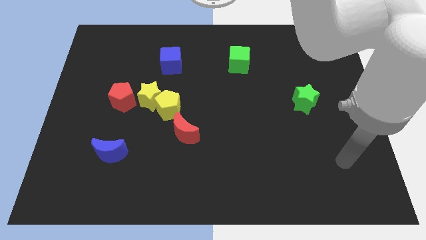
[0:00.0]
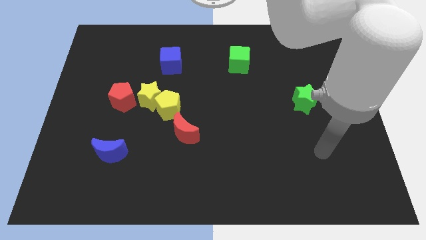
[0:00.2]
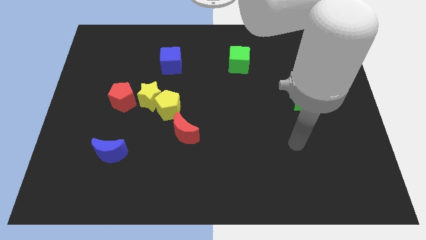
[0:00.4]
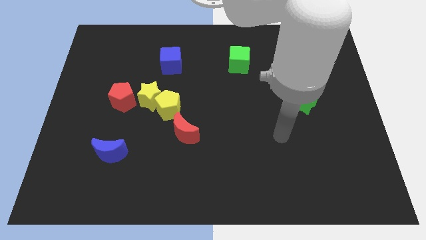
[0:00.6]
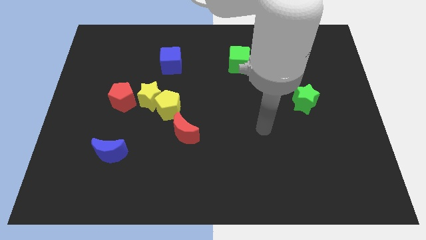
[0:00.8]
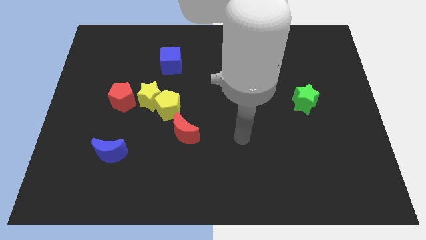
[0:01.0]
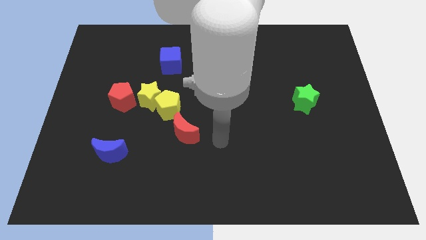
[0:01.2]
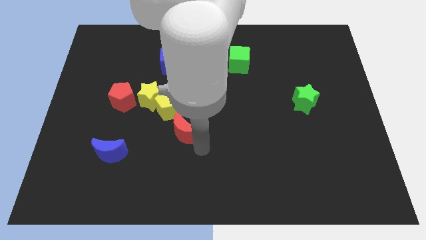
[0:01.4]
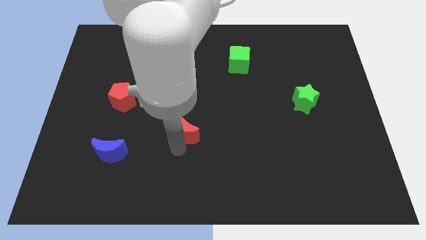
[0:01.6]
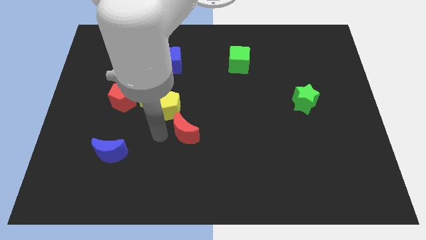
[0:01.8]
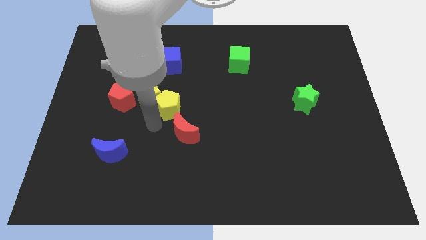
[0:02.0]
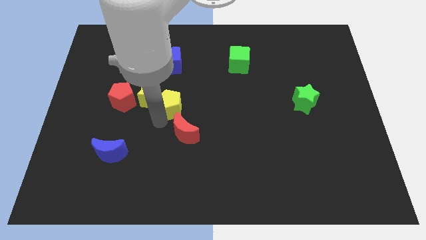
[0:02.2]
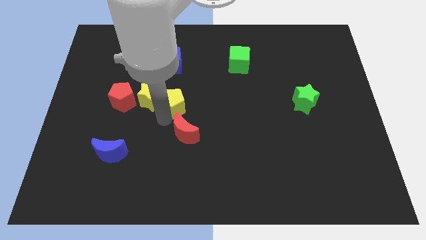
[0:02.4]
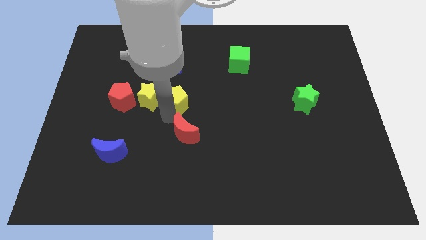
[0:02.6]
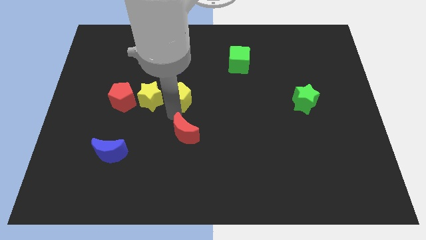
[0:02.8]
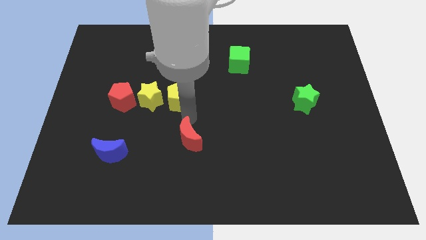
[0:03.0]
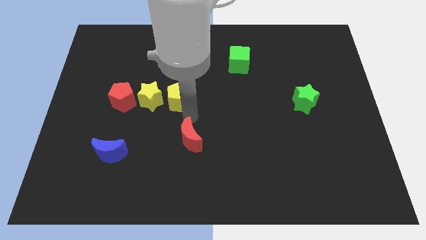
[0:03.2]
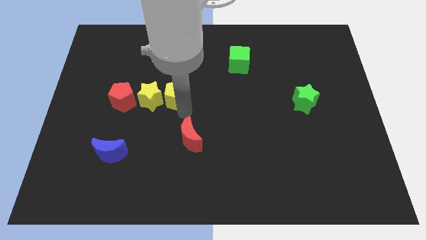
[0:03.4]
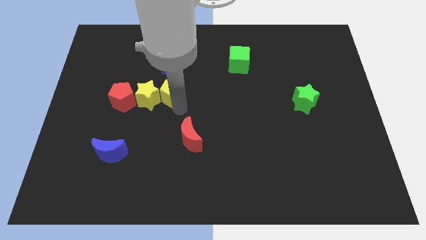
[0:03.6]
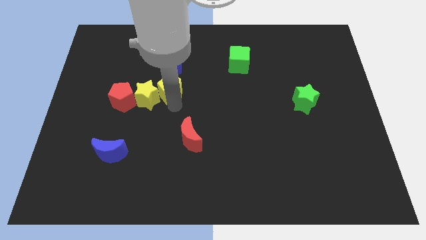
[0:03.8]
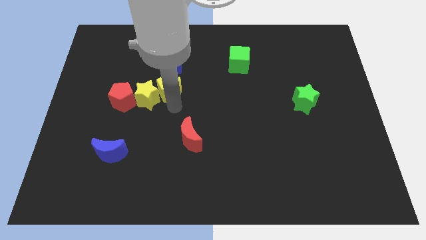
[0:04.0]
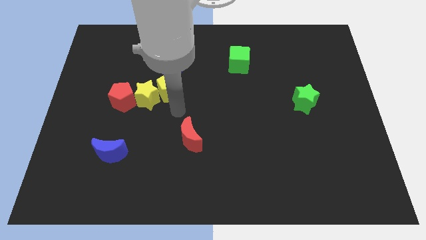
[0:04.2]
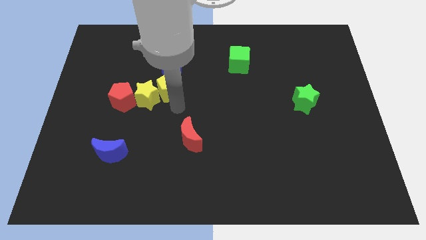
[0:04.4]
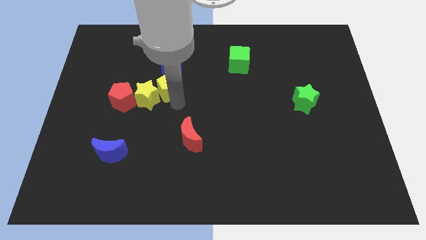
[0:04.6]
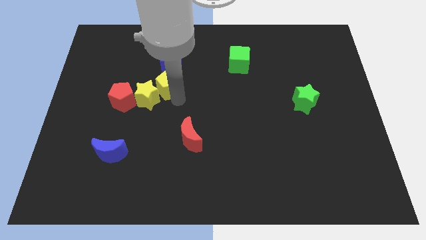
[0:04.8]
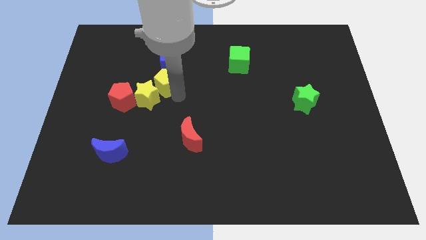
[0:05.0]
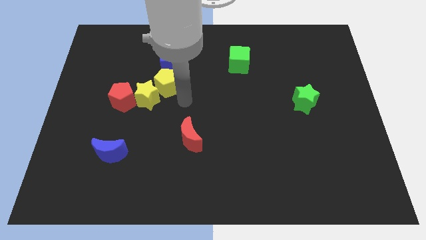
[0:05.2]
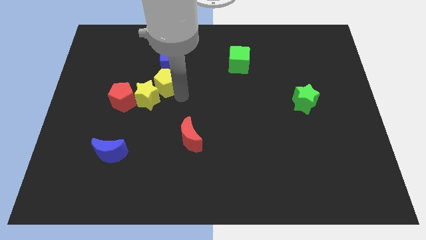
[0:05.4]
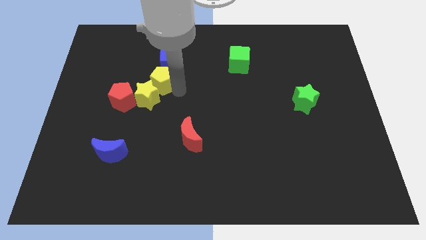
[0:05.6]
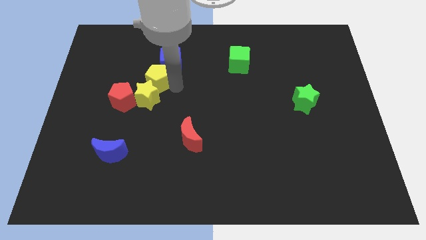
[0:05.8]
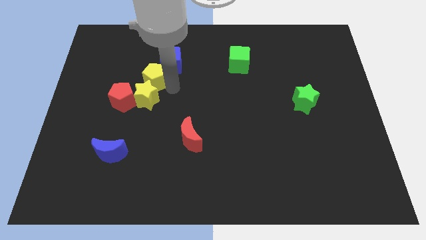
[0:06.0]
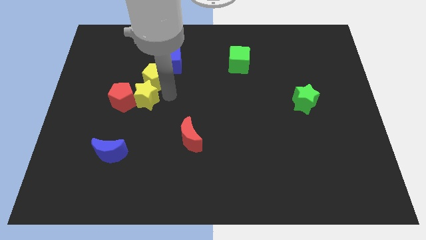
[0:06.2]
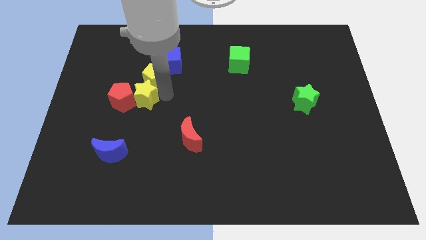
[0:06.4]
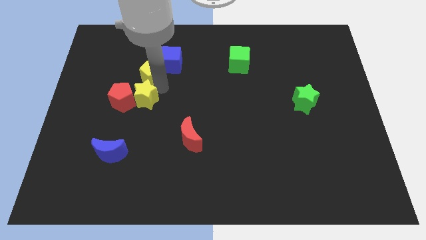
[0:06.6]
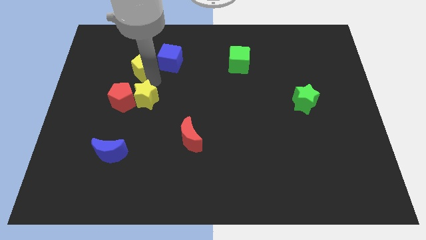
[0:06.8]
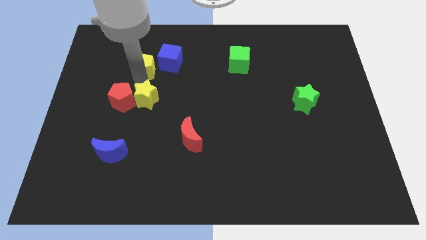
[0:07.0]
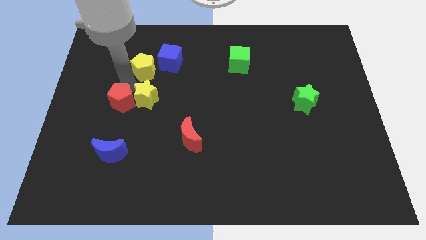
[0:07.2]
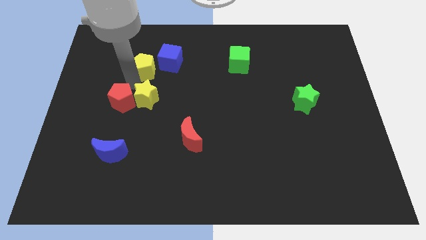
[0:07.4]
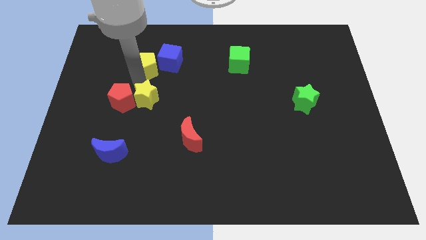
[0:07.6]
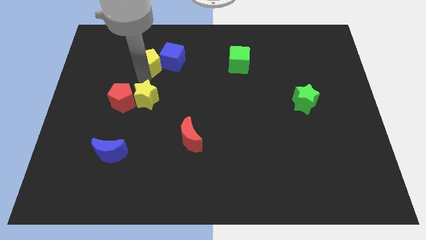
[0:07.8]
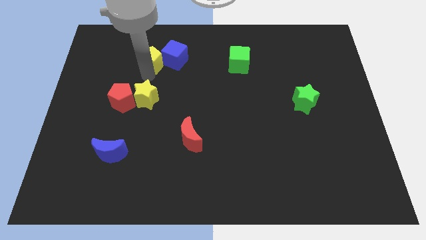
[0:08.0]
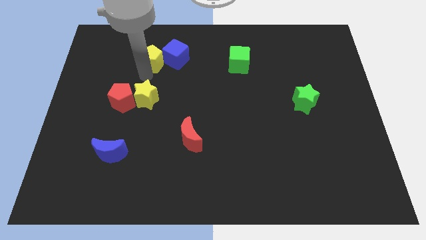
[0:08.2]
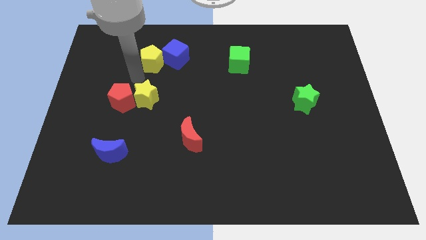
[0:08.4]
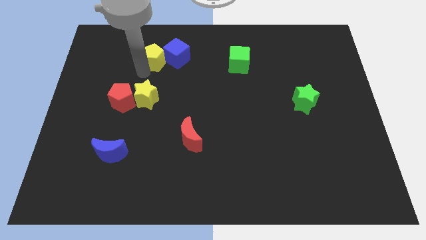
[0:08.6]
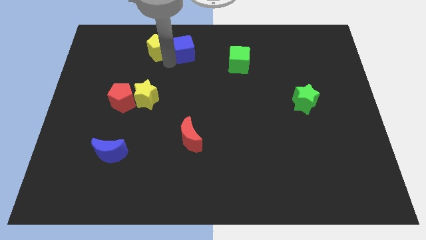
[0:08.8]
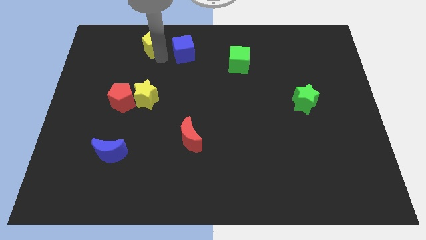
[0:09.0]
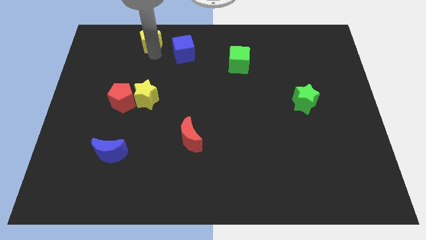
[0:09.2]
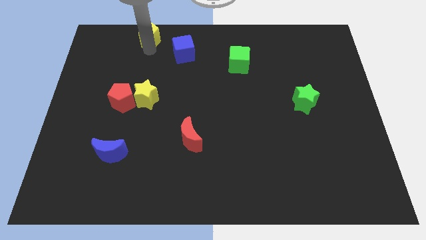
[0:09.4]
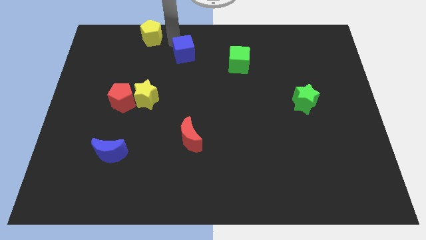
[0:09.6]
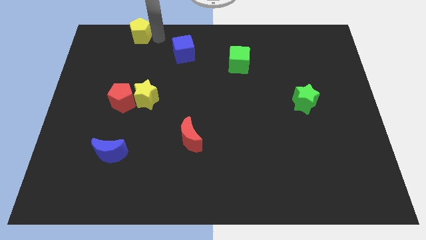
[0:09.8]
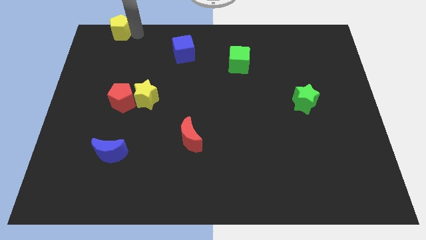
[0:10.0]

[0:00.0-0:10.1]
slide the yellow pentagon to the top left corner

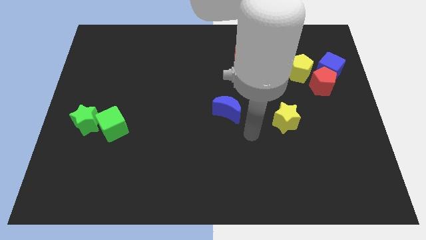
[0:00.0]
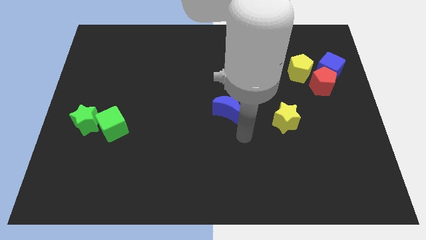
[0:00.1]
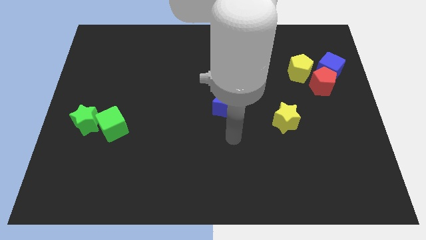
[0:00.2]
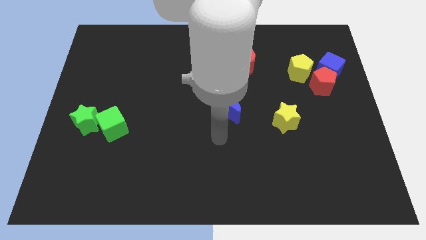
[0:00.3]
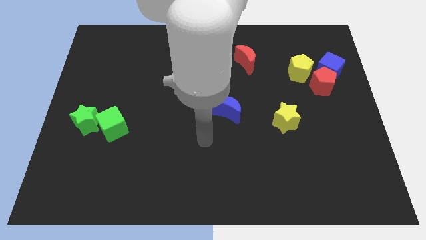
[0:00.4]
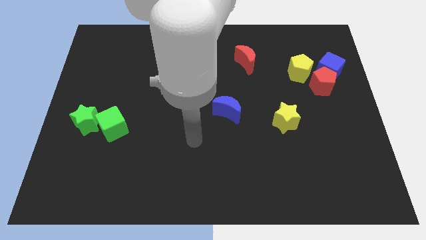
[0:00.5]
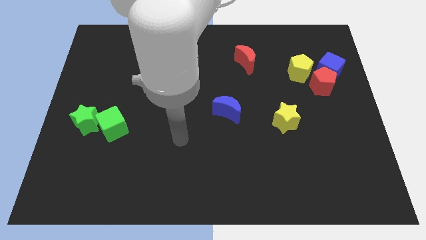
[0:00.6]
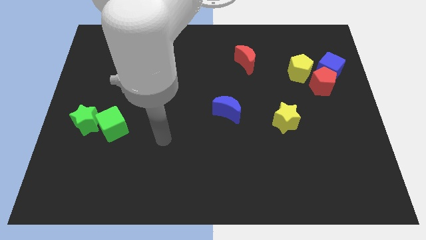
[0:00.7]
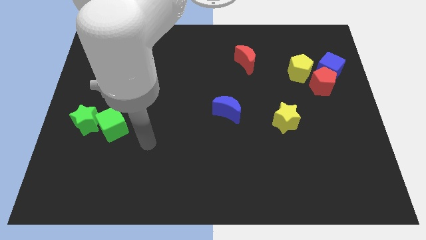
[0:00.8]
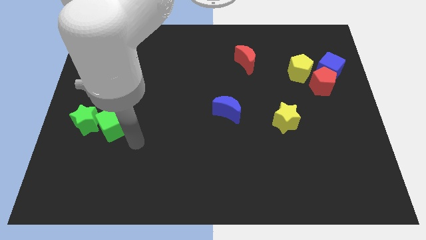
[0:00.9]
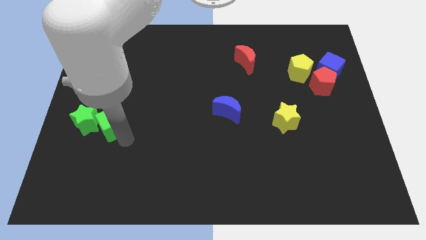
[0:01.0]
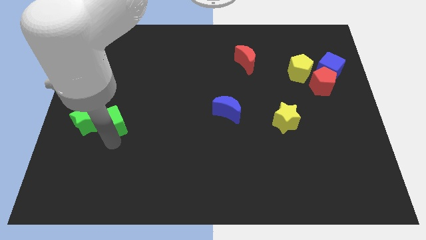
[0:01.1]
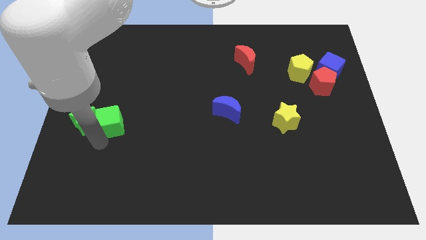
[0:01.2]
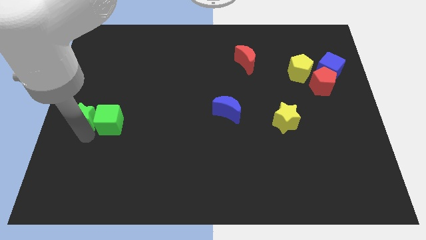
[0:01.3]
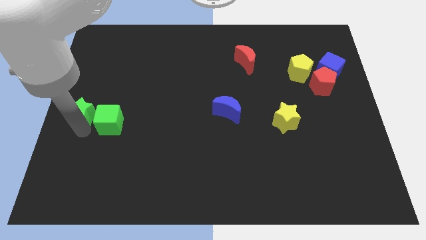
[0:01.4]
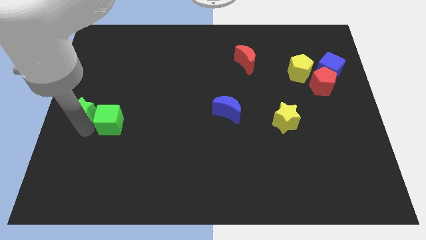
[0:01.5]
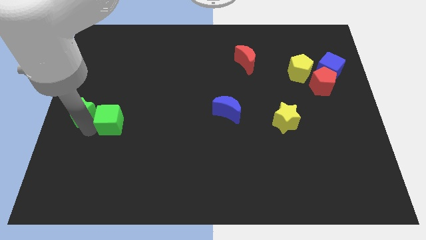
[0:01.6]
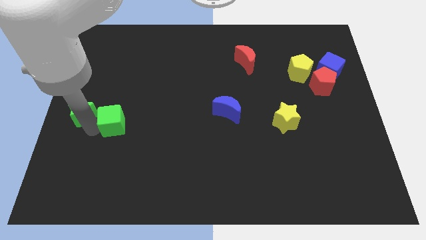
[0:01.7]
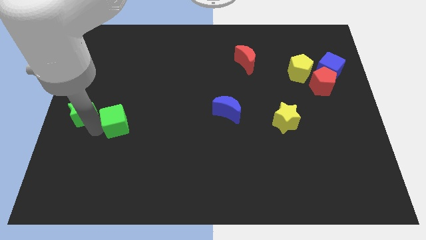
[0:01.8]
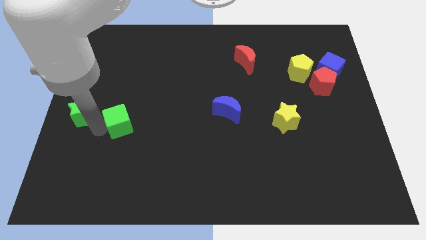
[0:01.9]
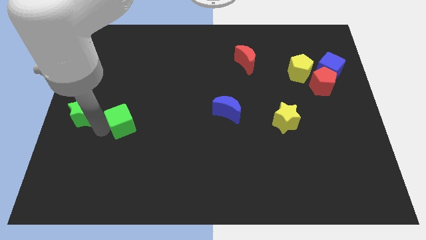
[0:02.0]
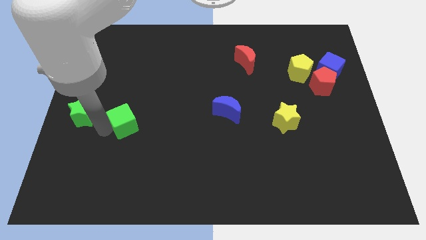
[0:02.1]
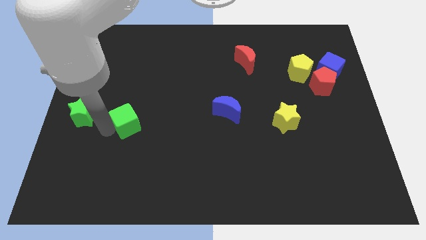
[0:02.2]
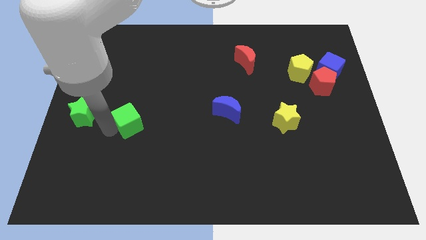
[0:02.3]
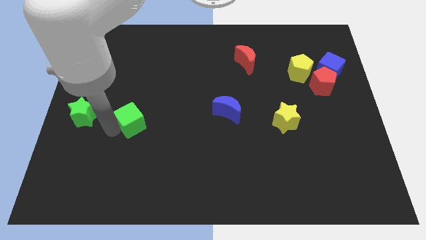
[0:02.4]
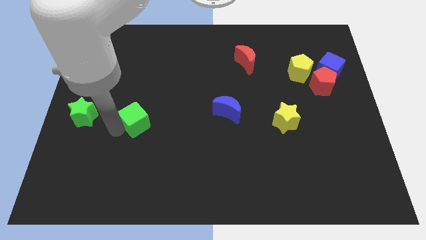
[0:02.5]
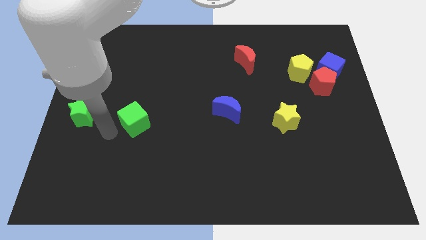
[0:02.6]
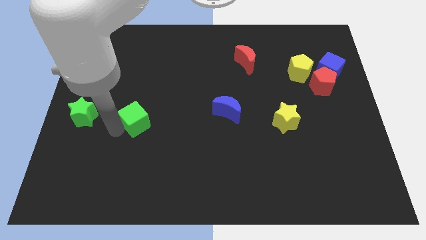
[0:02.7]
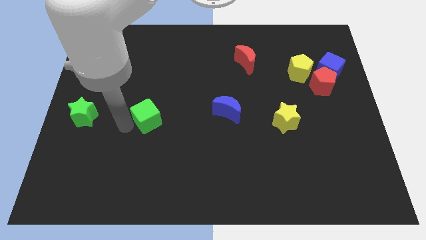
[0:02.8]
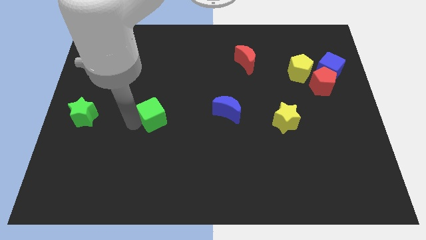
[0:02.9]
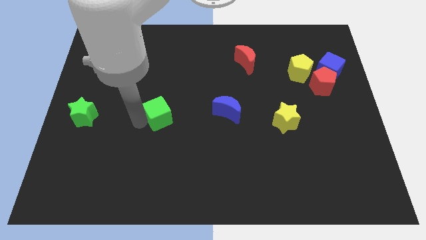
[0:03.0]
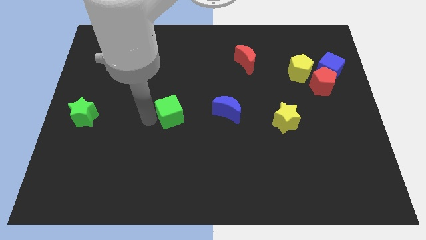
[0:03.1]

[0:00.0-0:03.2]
push the green cube to the center of the board
